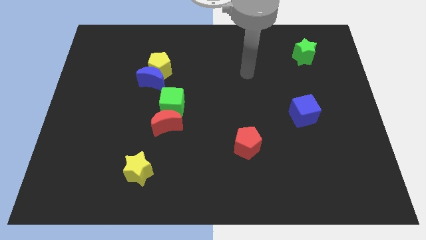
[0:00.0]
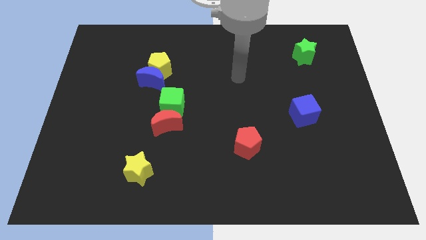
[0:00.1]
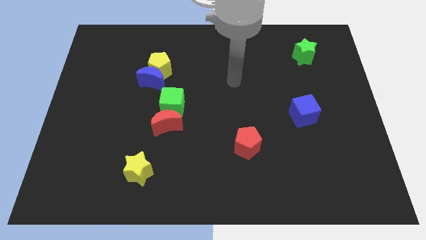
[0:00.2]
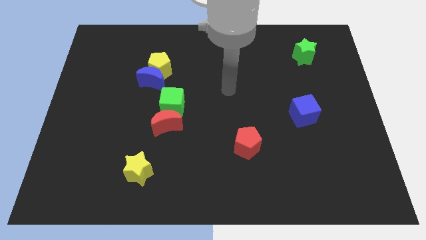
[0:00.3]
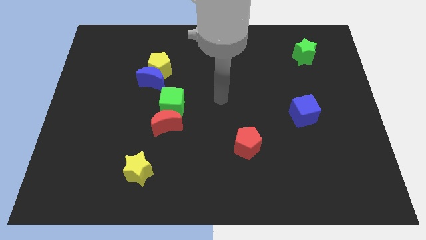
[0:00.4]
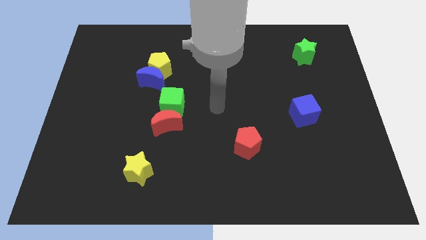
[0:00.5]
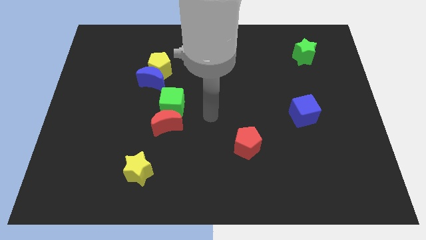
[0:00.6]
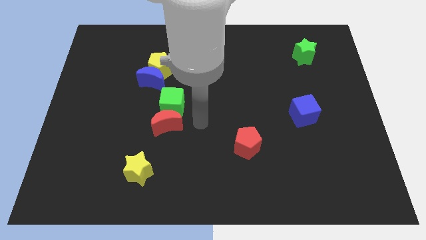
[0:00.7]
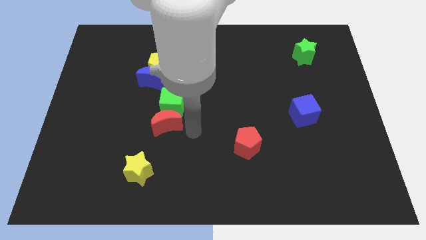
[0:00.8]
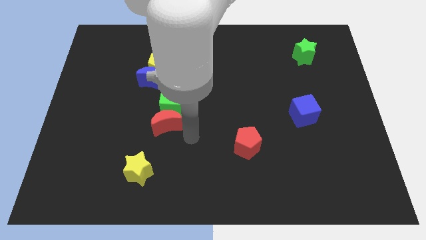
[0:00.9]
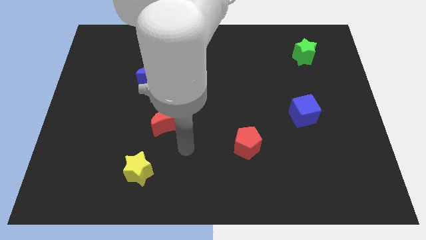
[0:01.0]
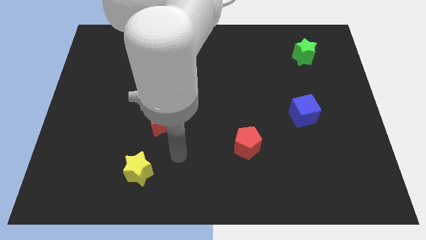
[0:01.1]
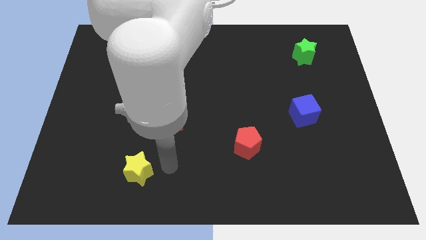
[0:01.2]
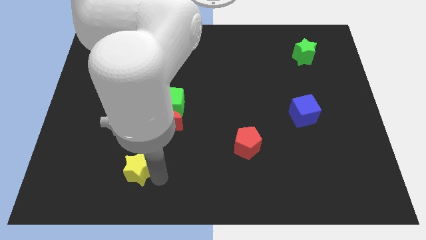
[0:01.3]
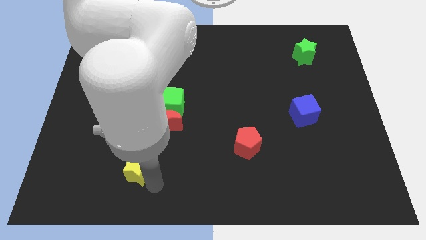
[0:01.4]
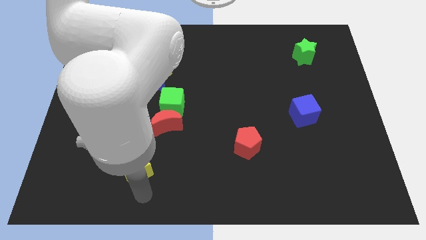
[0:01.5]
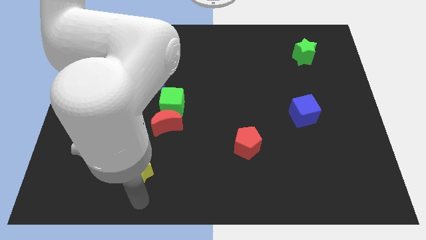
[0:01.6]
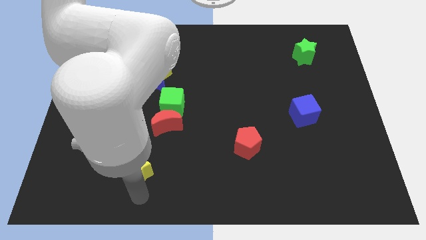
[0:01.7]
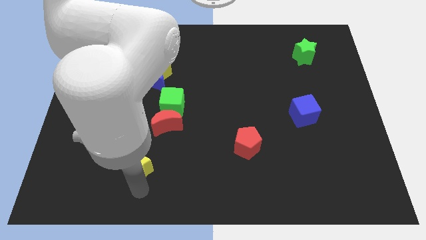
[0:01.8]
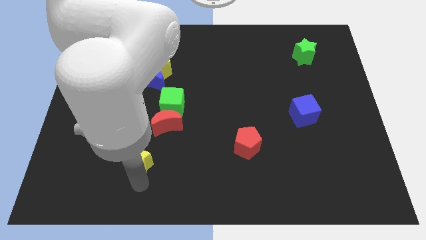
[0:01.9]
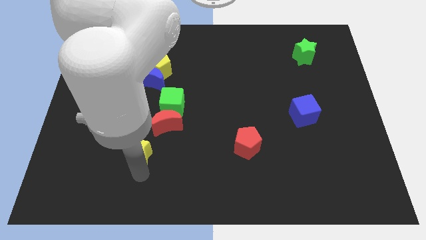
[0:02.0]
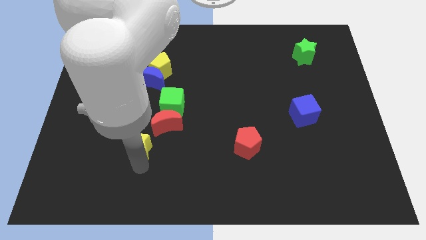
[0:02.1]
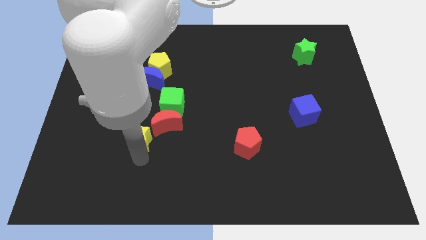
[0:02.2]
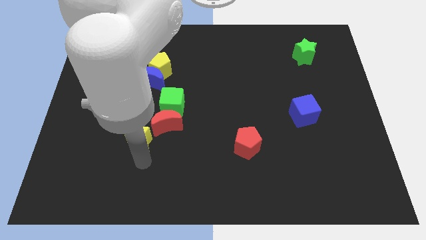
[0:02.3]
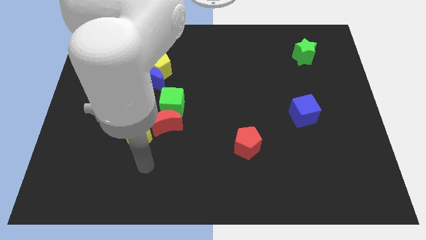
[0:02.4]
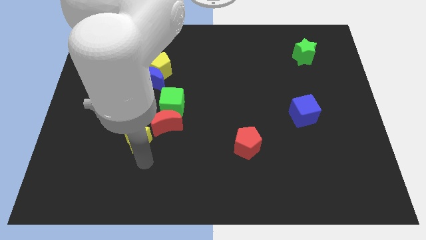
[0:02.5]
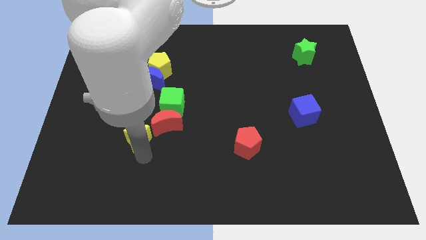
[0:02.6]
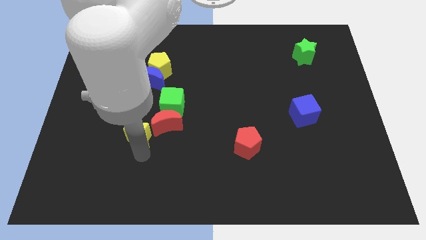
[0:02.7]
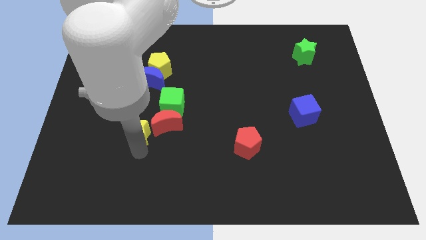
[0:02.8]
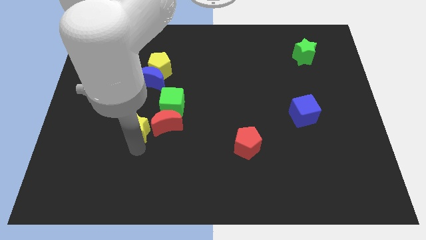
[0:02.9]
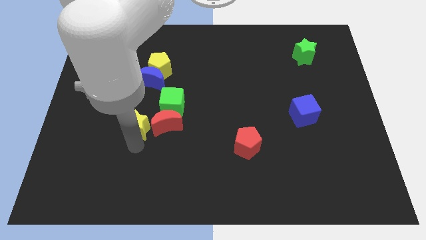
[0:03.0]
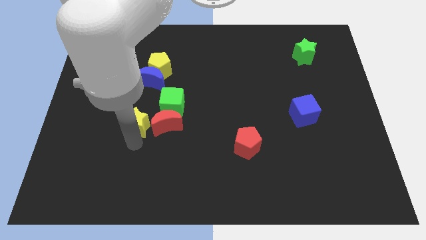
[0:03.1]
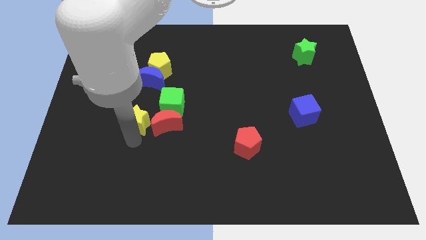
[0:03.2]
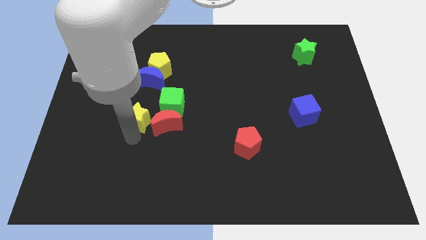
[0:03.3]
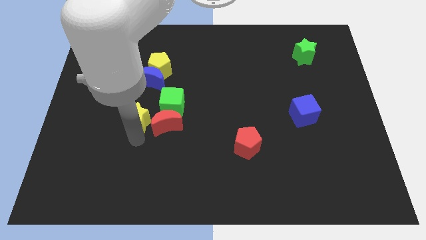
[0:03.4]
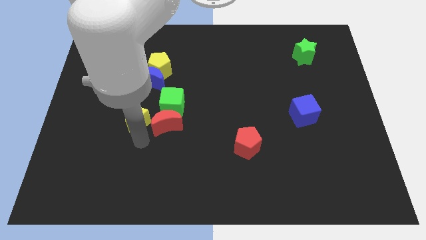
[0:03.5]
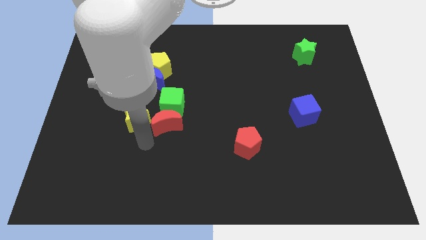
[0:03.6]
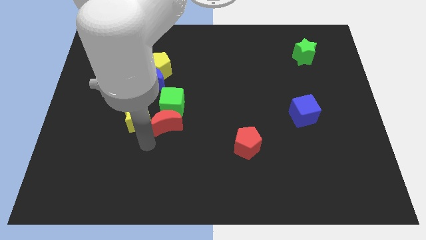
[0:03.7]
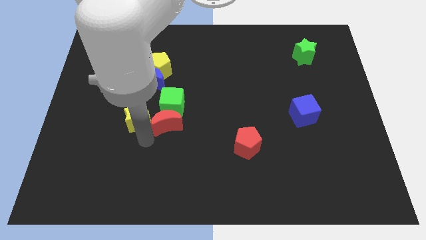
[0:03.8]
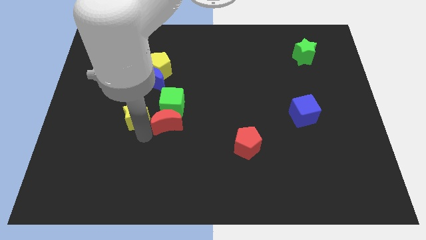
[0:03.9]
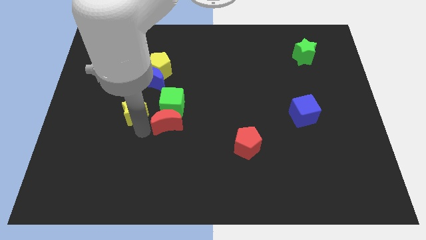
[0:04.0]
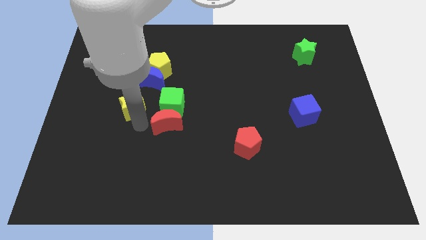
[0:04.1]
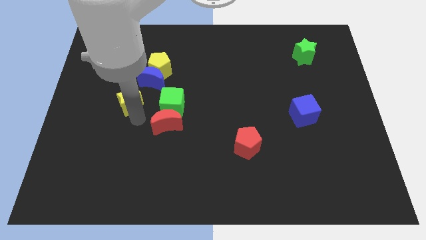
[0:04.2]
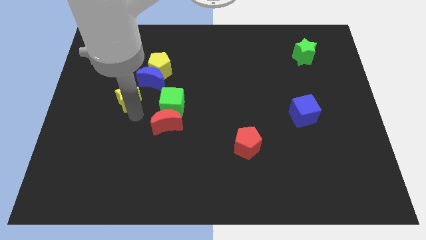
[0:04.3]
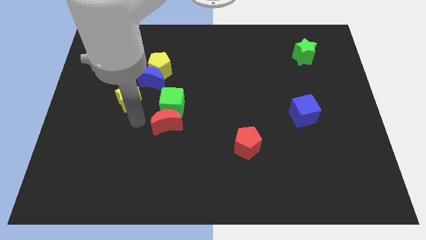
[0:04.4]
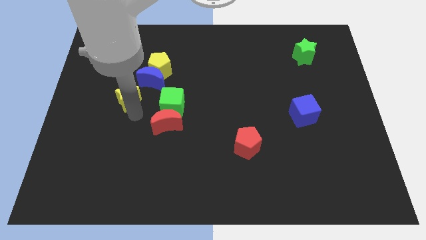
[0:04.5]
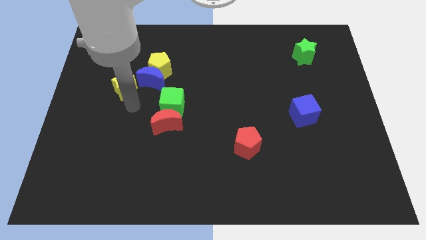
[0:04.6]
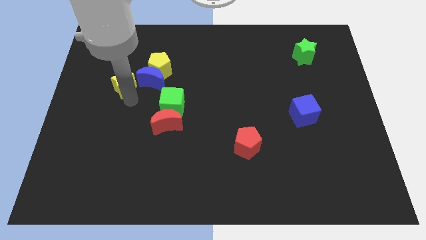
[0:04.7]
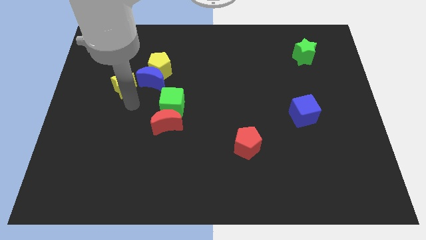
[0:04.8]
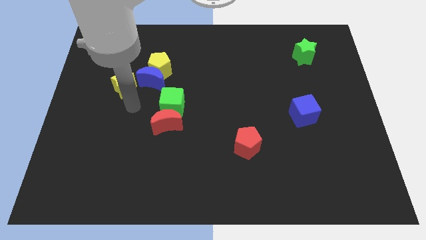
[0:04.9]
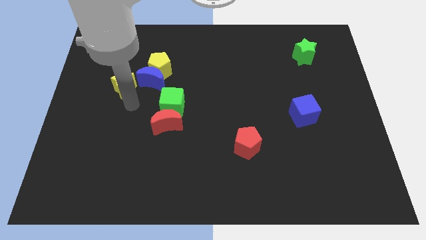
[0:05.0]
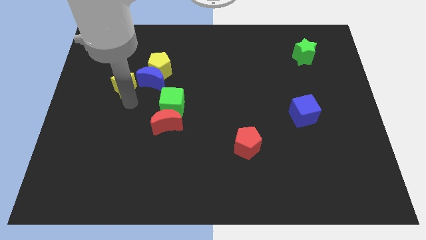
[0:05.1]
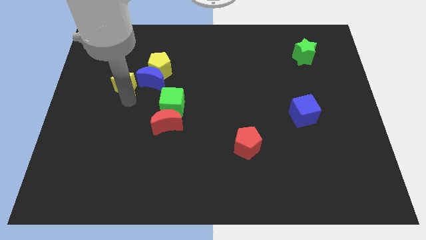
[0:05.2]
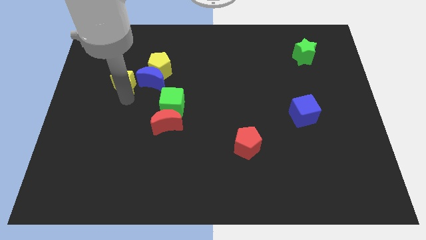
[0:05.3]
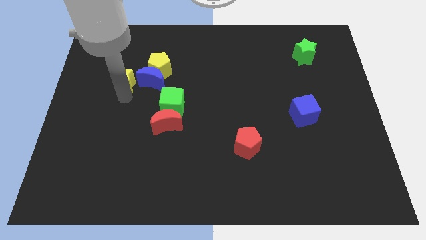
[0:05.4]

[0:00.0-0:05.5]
put the yellow star just left of the yellow pentagon

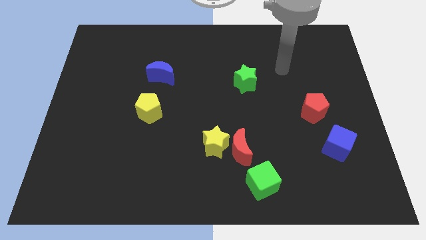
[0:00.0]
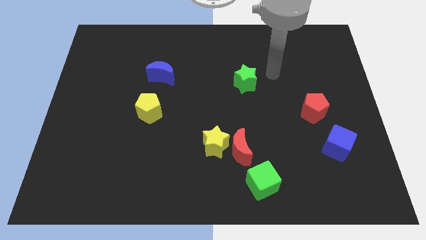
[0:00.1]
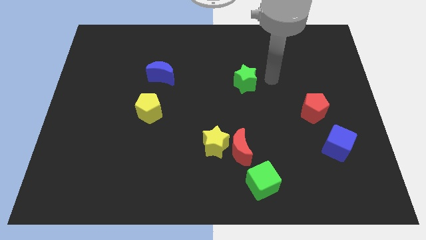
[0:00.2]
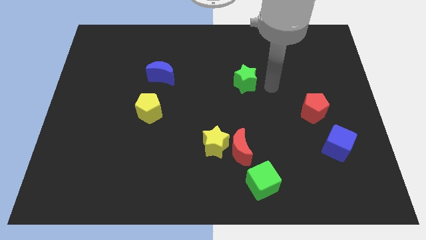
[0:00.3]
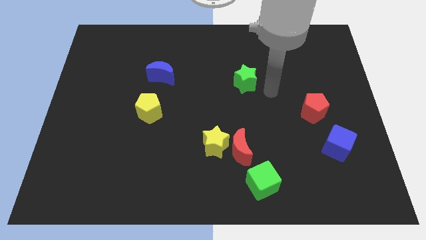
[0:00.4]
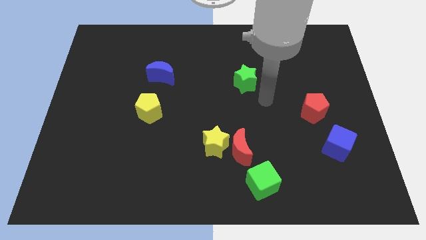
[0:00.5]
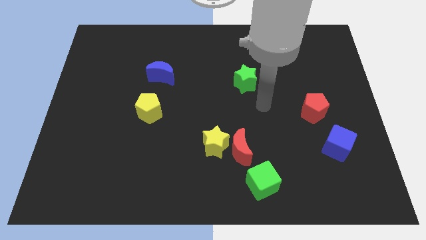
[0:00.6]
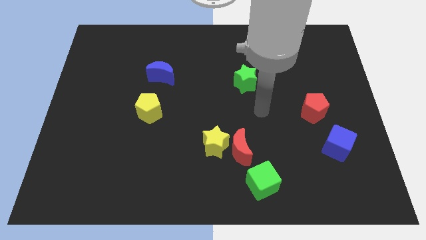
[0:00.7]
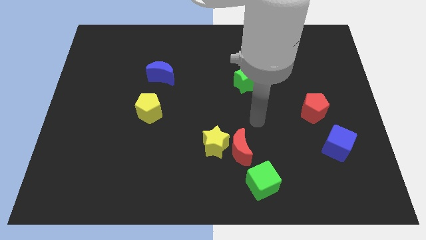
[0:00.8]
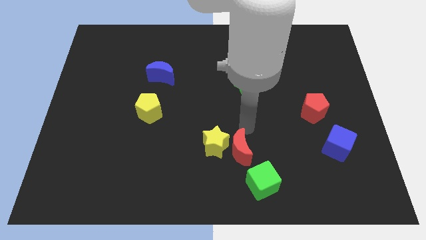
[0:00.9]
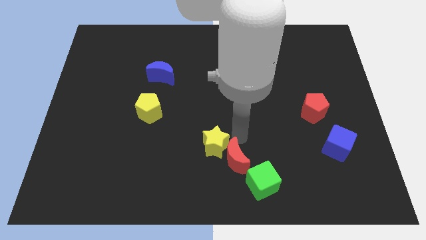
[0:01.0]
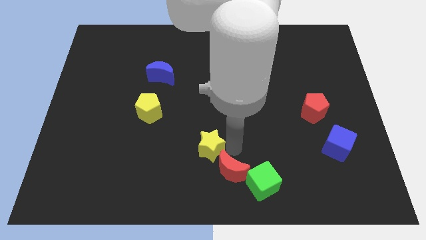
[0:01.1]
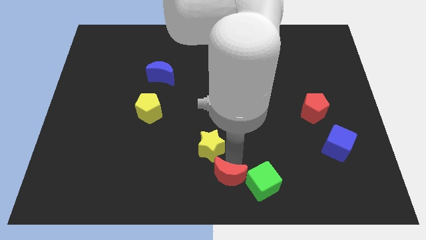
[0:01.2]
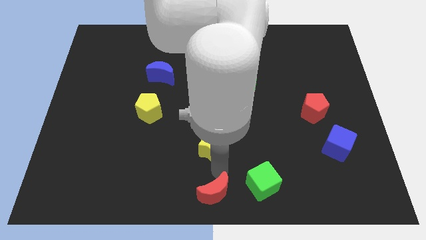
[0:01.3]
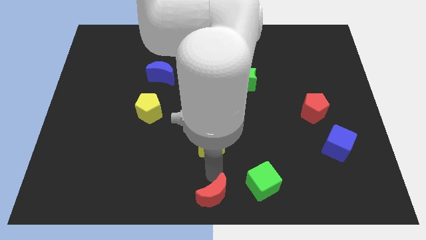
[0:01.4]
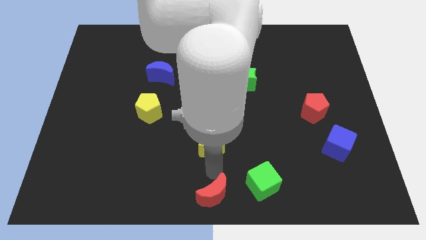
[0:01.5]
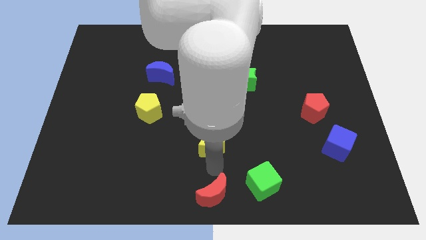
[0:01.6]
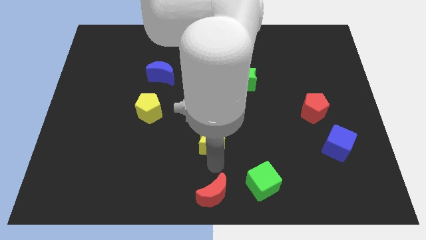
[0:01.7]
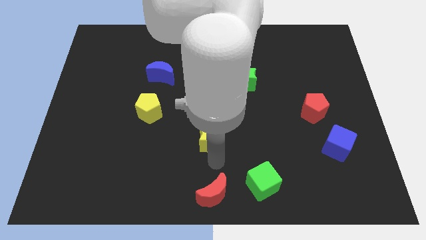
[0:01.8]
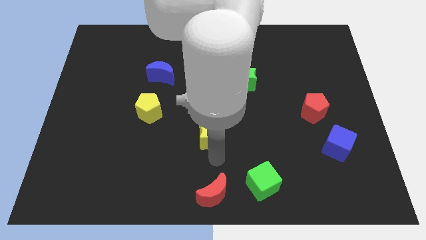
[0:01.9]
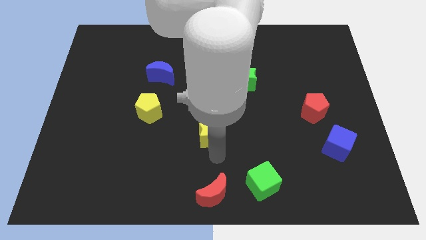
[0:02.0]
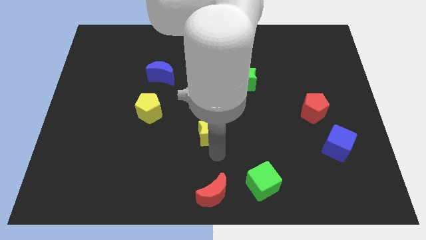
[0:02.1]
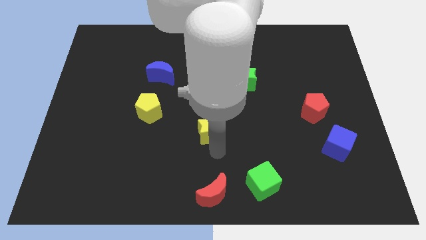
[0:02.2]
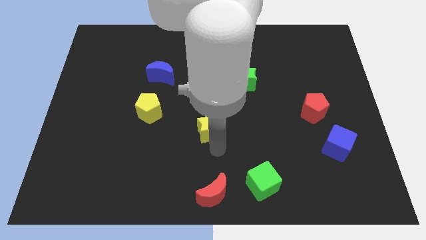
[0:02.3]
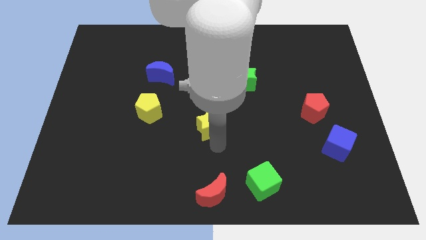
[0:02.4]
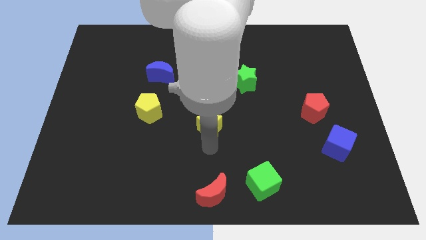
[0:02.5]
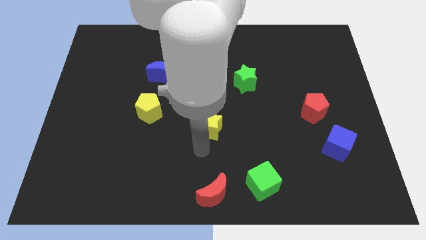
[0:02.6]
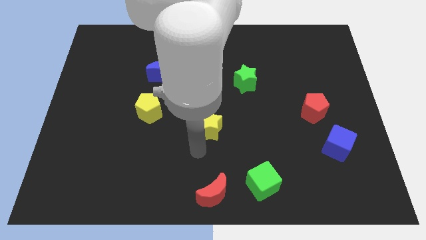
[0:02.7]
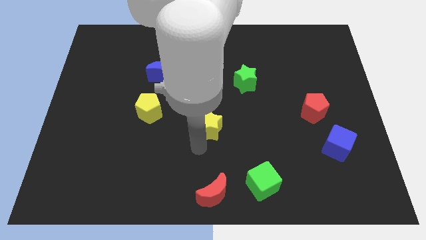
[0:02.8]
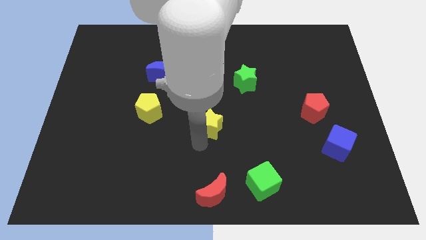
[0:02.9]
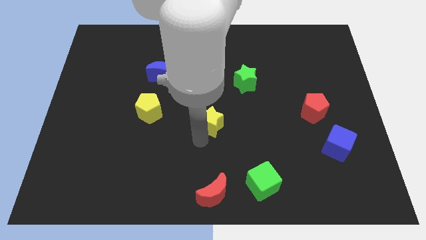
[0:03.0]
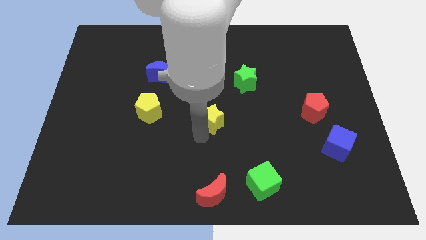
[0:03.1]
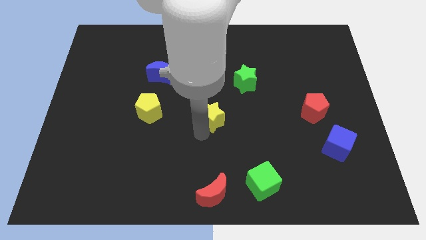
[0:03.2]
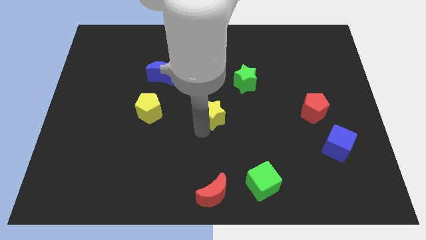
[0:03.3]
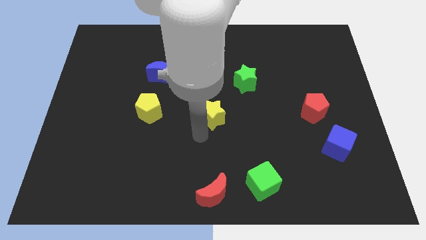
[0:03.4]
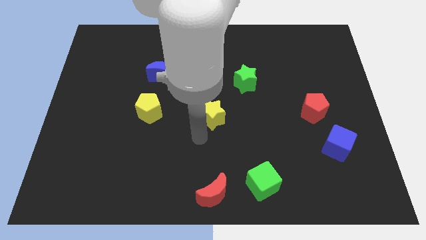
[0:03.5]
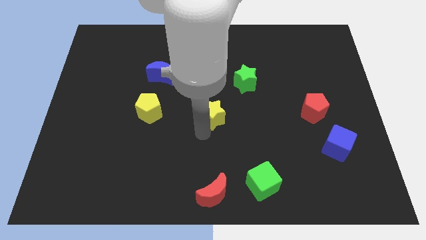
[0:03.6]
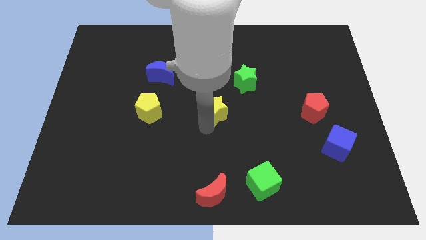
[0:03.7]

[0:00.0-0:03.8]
put the yellow star to the bottom left of the green star
